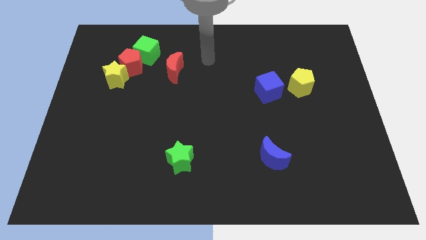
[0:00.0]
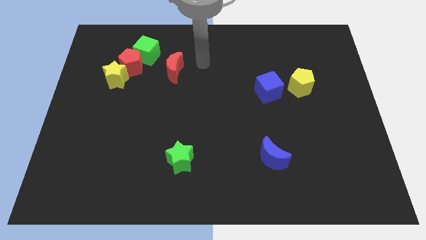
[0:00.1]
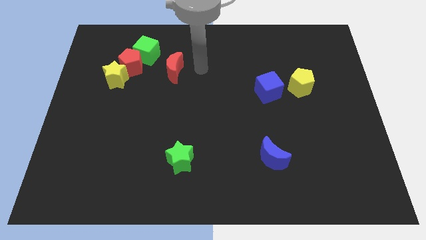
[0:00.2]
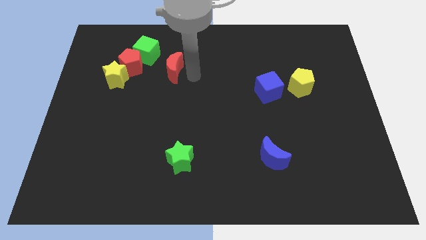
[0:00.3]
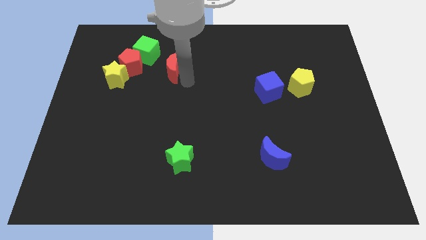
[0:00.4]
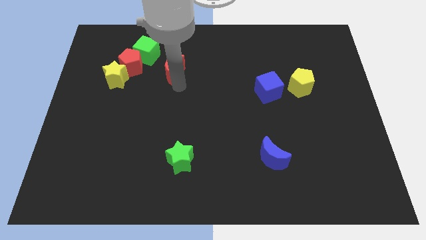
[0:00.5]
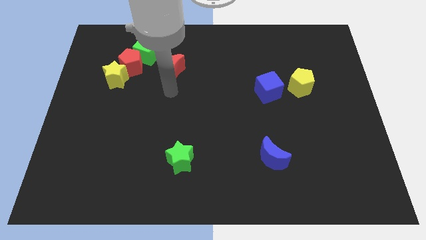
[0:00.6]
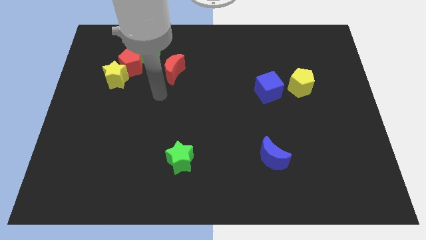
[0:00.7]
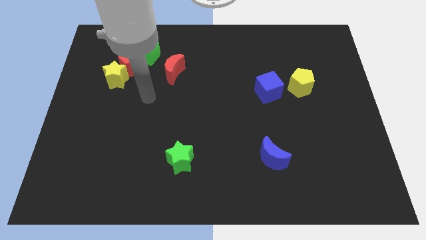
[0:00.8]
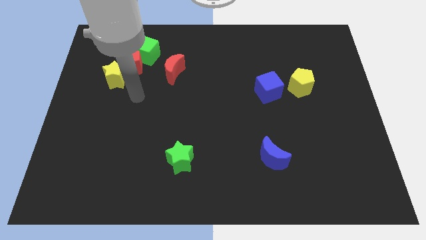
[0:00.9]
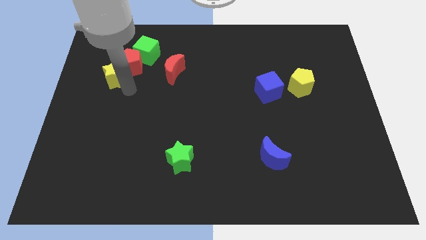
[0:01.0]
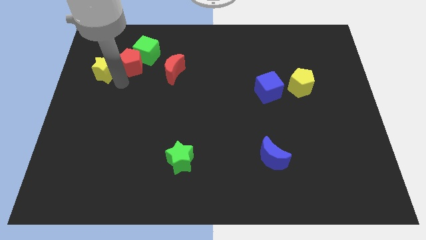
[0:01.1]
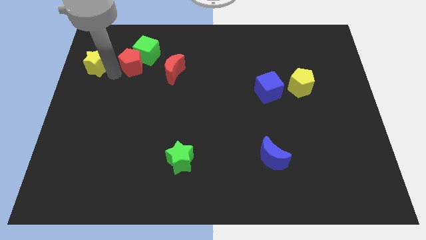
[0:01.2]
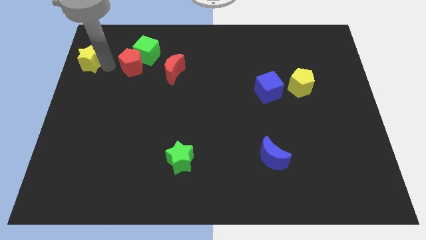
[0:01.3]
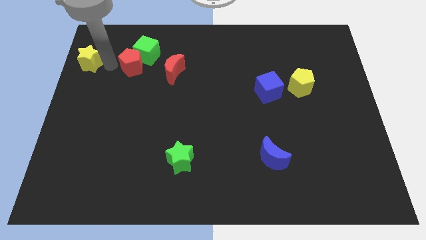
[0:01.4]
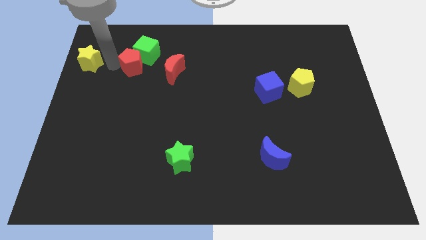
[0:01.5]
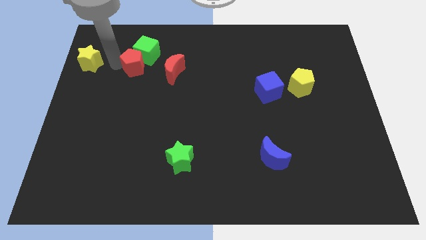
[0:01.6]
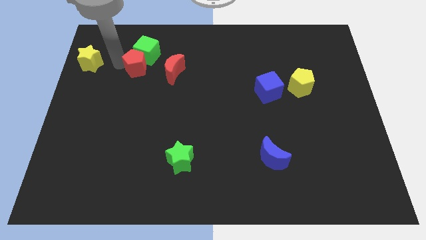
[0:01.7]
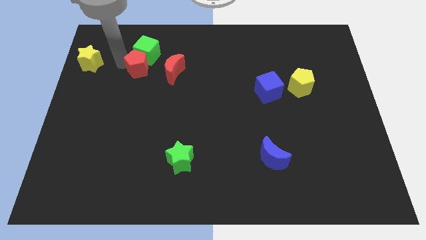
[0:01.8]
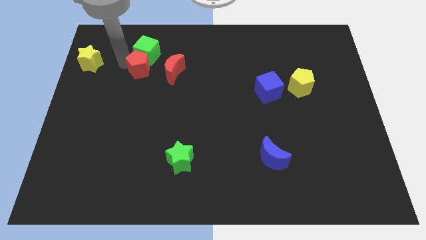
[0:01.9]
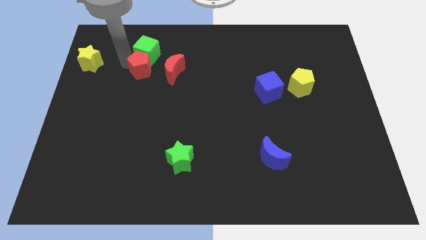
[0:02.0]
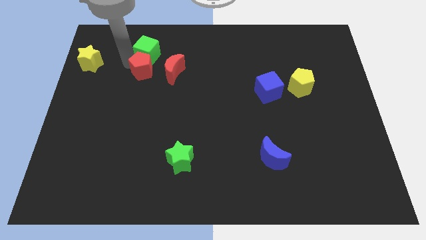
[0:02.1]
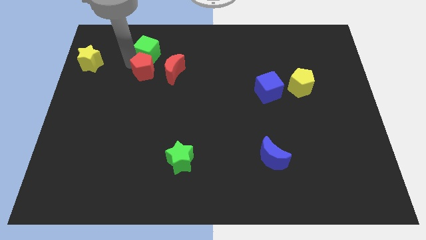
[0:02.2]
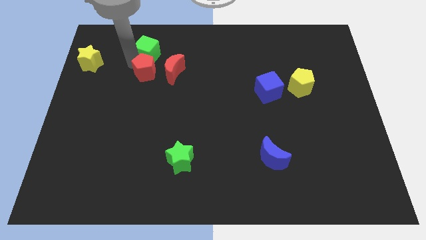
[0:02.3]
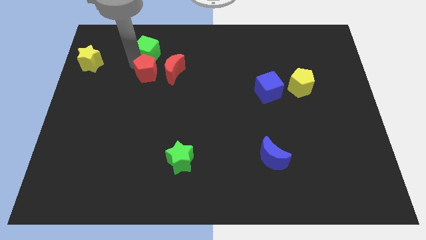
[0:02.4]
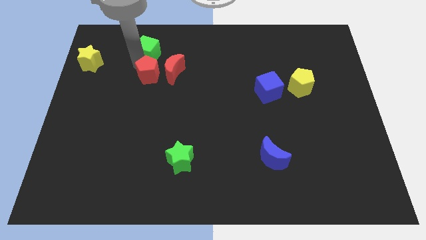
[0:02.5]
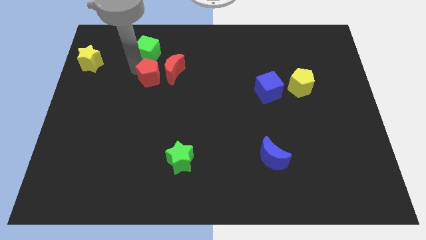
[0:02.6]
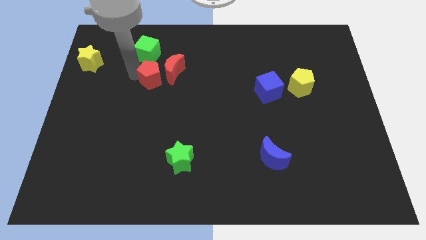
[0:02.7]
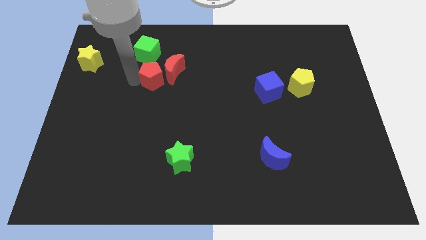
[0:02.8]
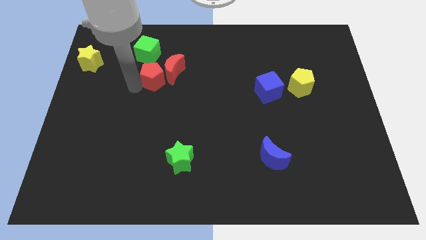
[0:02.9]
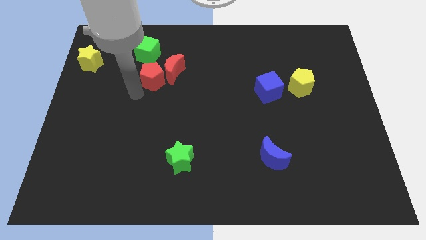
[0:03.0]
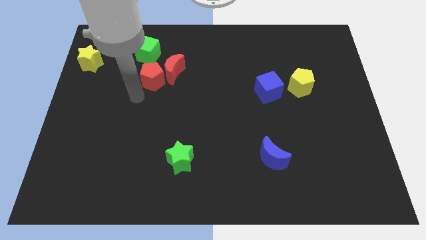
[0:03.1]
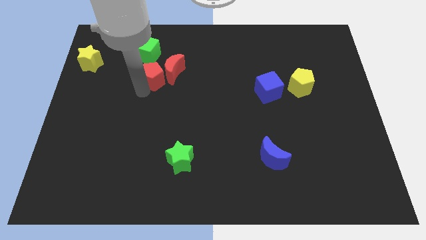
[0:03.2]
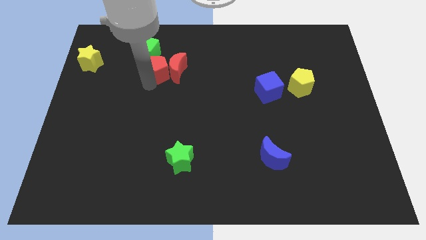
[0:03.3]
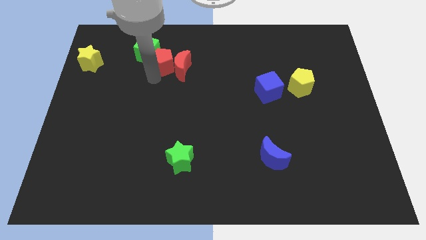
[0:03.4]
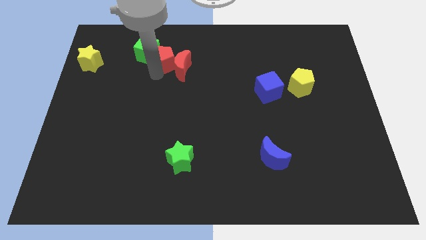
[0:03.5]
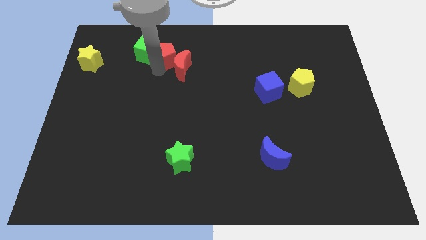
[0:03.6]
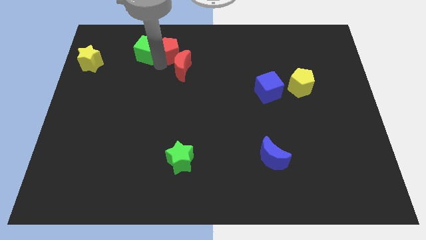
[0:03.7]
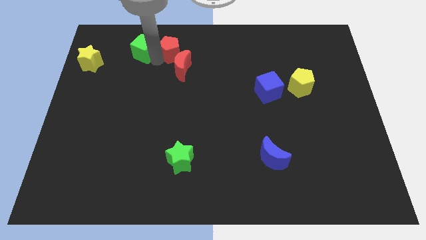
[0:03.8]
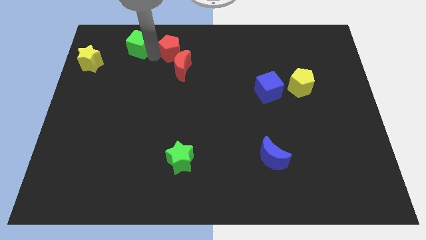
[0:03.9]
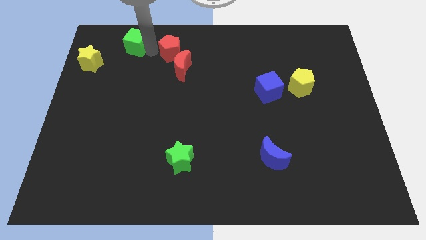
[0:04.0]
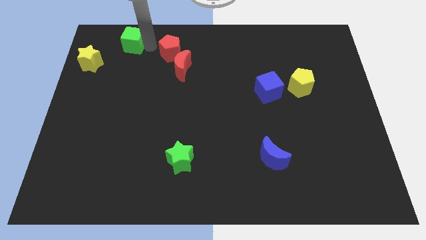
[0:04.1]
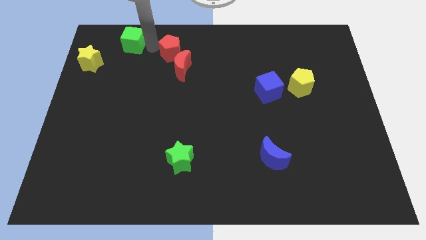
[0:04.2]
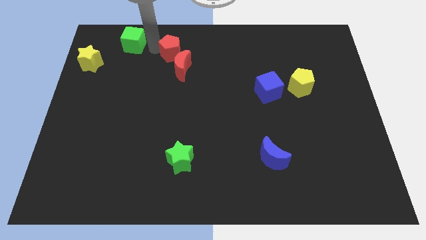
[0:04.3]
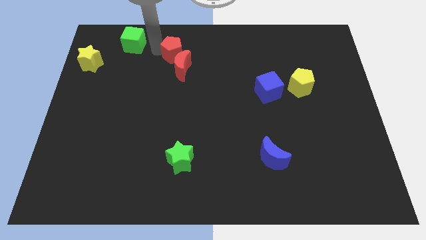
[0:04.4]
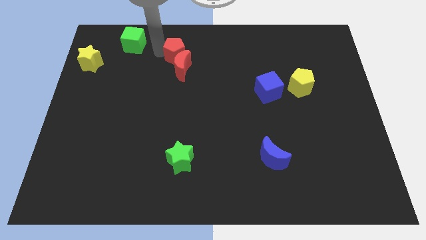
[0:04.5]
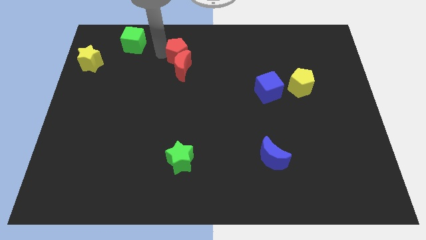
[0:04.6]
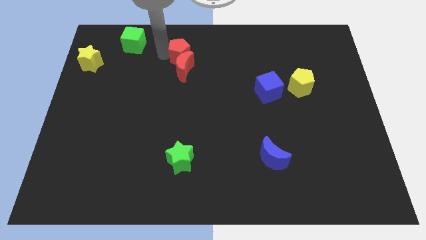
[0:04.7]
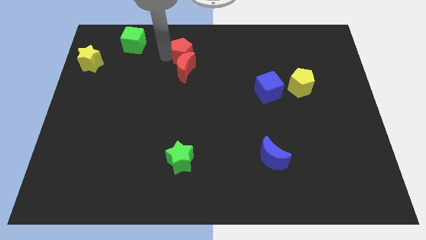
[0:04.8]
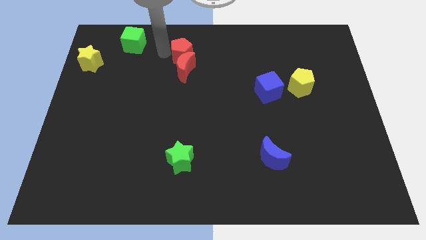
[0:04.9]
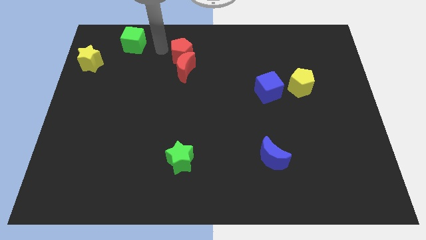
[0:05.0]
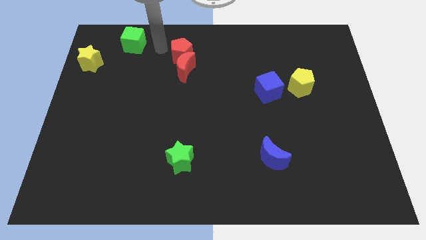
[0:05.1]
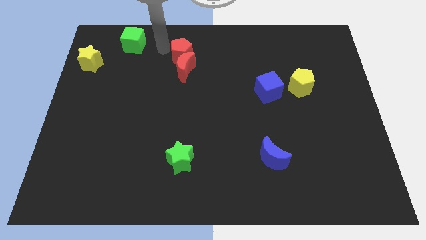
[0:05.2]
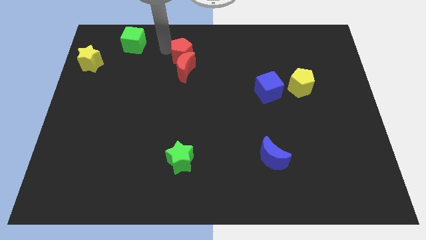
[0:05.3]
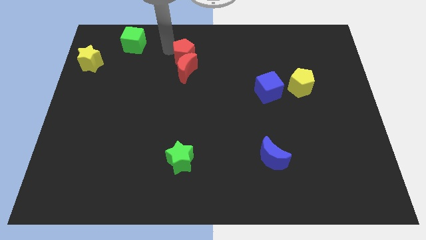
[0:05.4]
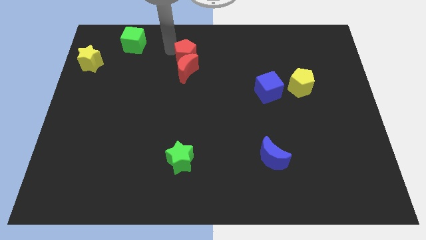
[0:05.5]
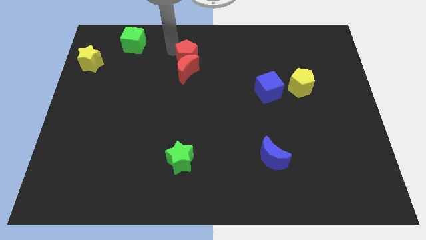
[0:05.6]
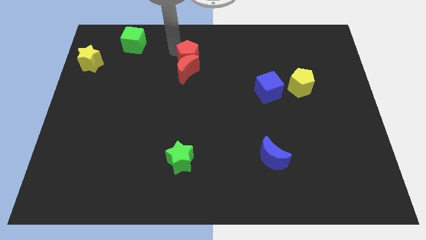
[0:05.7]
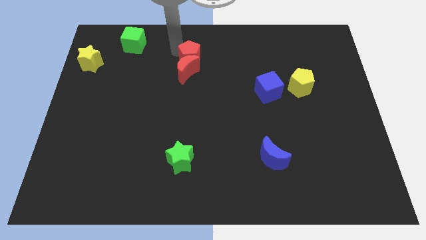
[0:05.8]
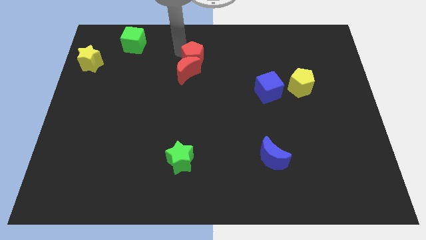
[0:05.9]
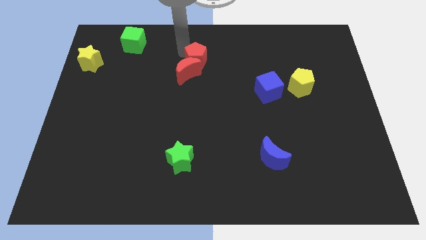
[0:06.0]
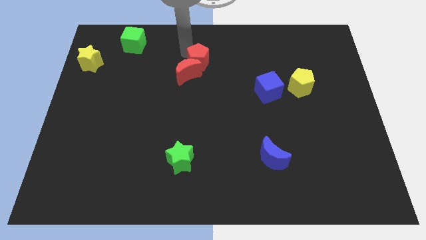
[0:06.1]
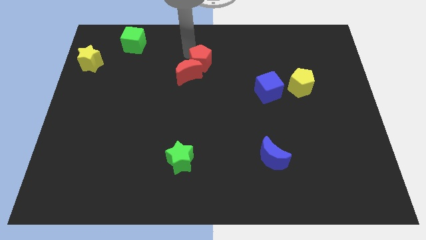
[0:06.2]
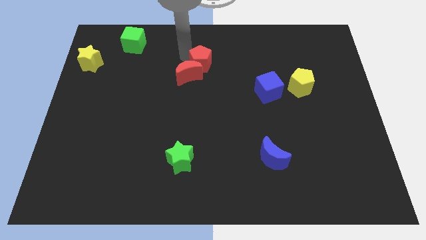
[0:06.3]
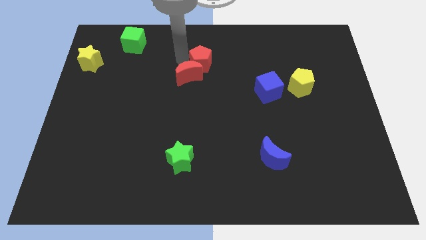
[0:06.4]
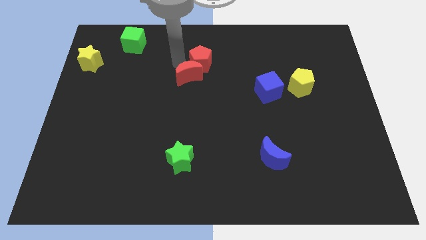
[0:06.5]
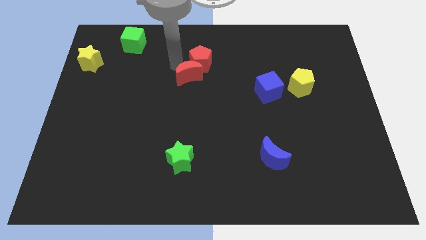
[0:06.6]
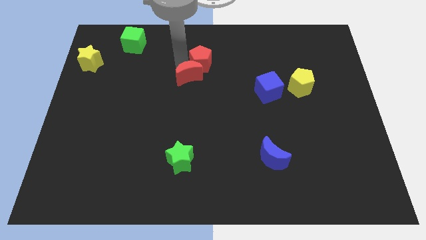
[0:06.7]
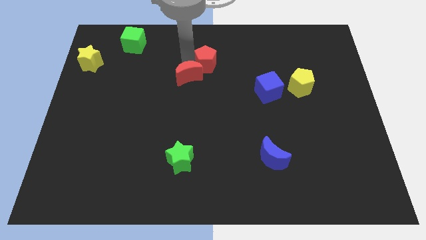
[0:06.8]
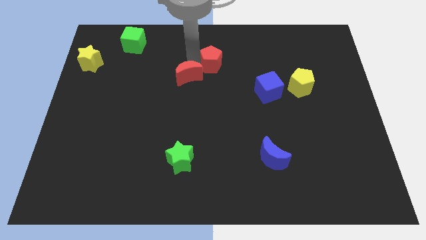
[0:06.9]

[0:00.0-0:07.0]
push the red pentagon right

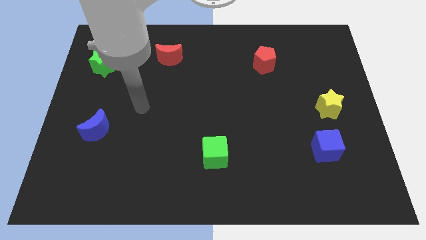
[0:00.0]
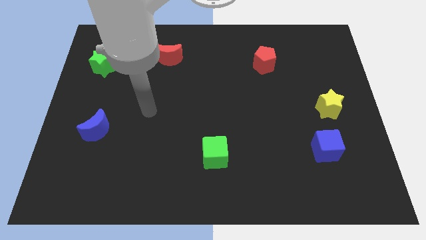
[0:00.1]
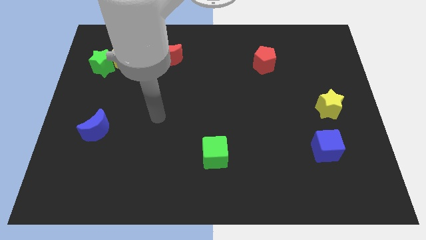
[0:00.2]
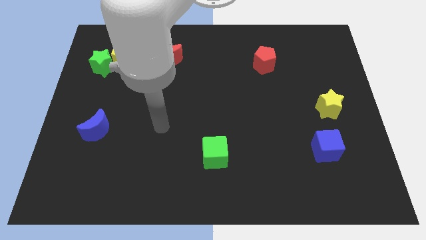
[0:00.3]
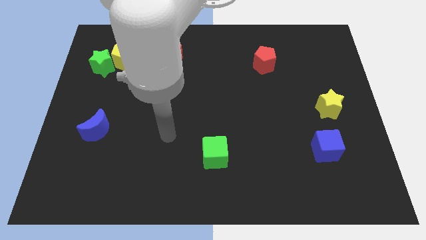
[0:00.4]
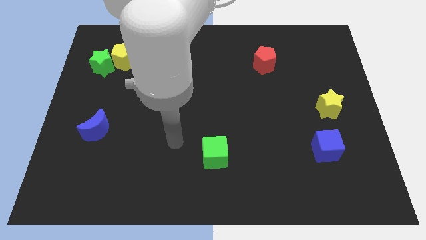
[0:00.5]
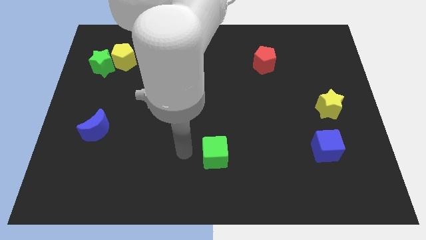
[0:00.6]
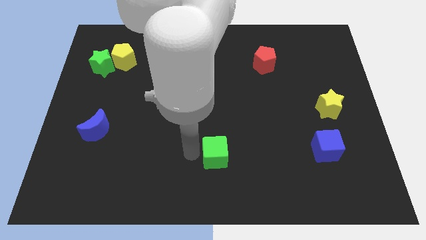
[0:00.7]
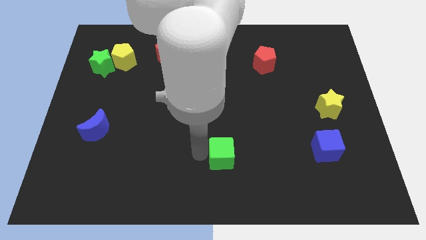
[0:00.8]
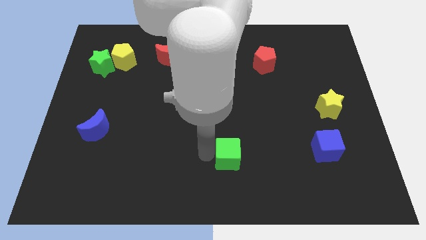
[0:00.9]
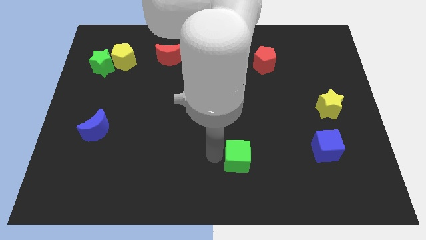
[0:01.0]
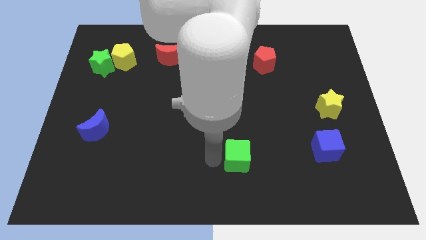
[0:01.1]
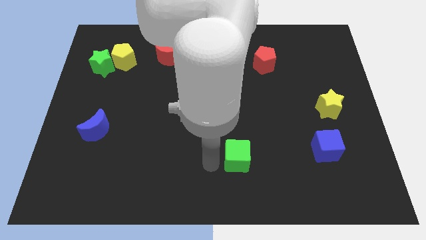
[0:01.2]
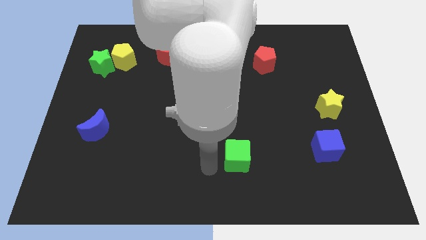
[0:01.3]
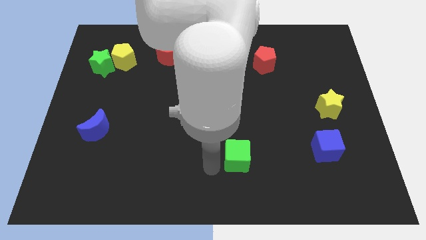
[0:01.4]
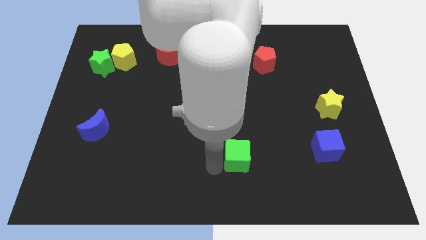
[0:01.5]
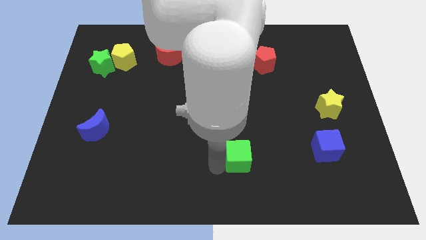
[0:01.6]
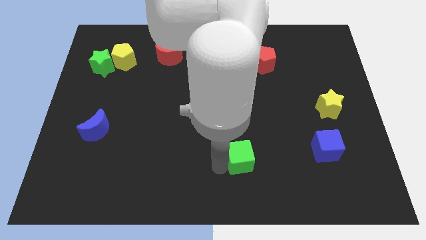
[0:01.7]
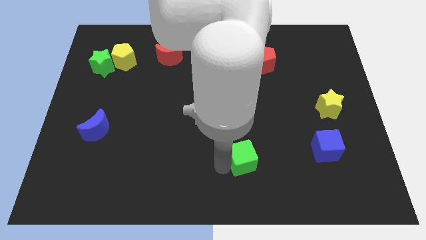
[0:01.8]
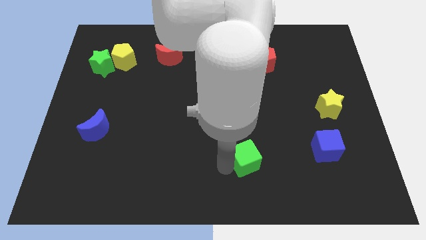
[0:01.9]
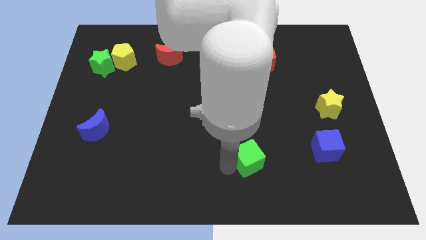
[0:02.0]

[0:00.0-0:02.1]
slide the green cube slightly to the right
